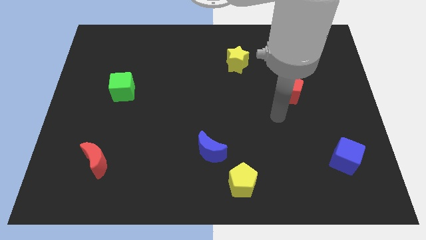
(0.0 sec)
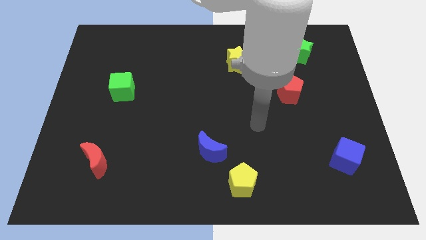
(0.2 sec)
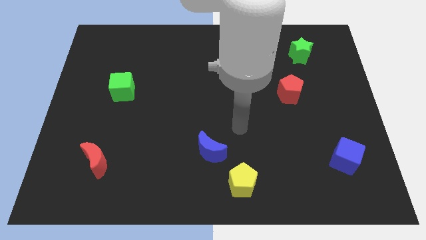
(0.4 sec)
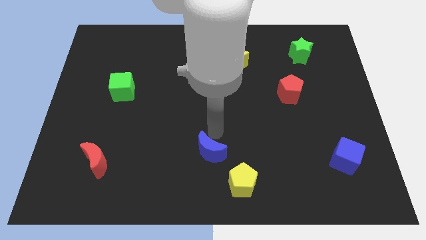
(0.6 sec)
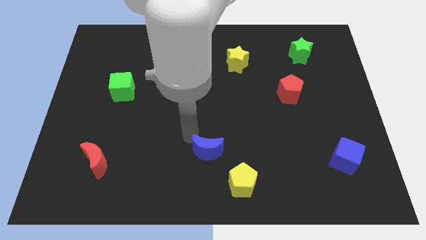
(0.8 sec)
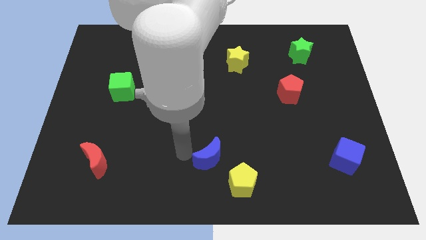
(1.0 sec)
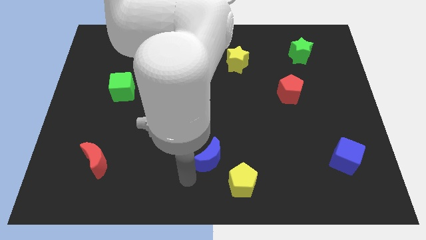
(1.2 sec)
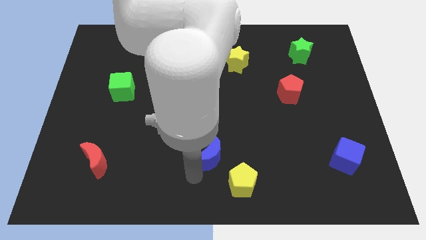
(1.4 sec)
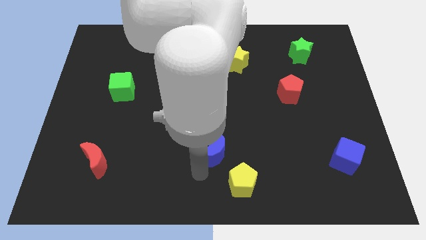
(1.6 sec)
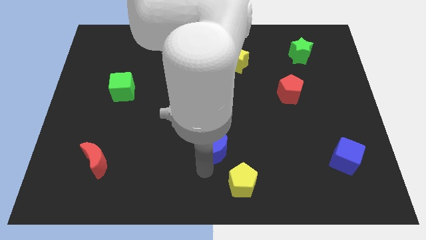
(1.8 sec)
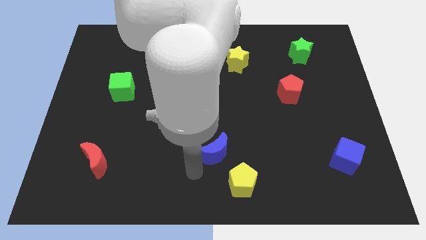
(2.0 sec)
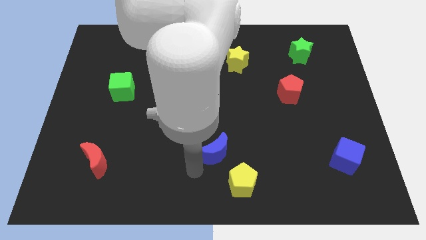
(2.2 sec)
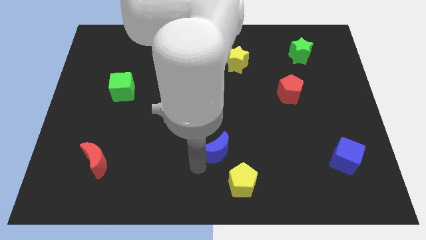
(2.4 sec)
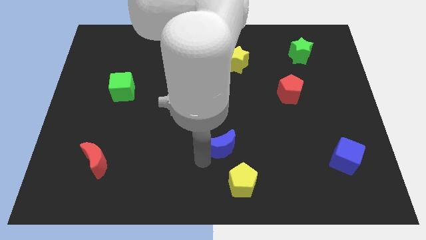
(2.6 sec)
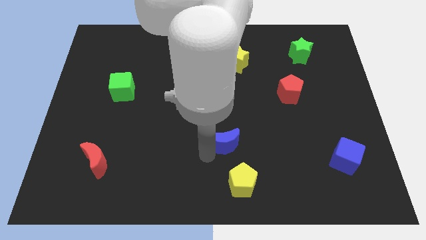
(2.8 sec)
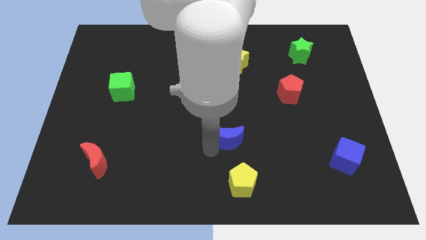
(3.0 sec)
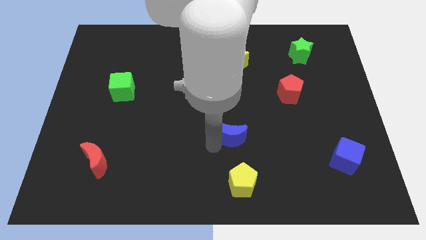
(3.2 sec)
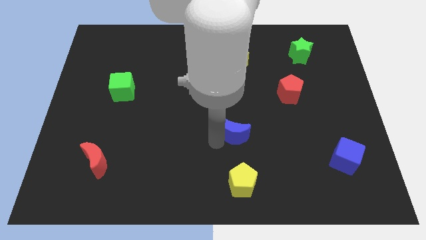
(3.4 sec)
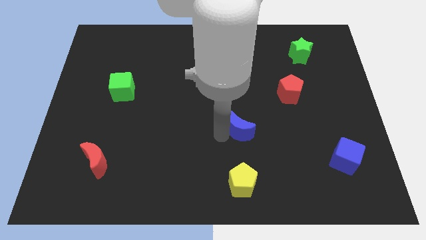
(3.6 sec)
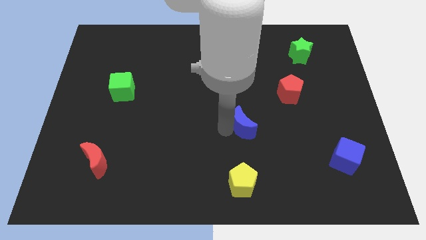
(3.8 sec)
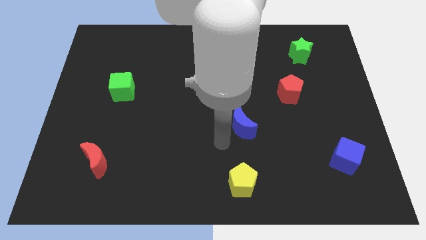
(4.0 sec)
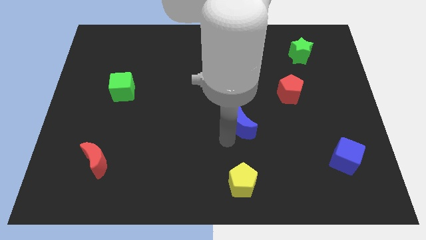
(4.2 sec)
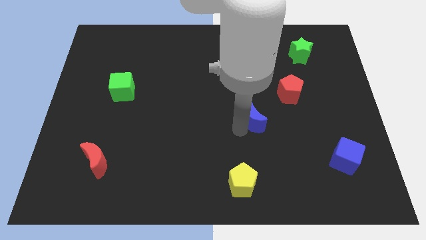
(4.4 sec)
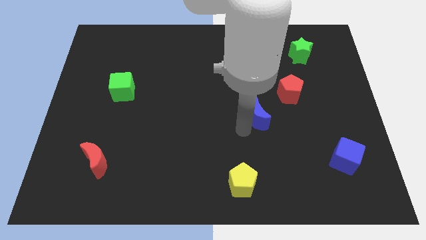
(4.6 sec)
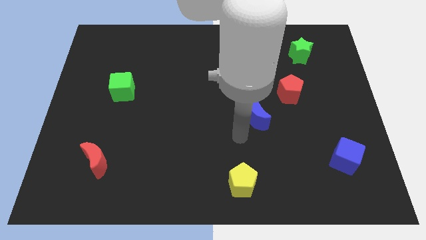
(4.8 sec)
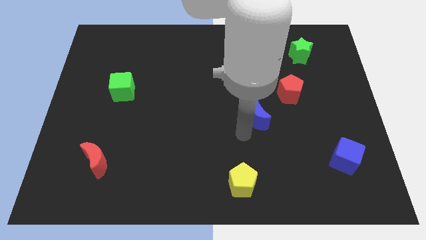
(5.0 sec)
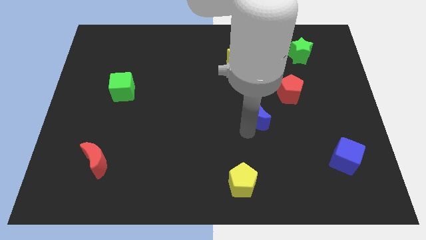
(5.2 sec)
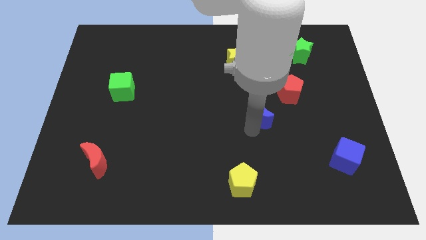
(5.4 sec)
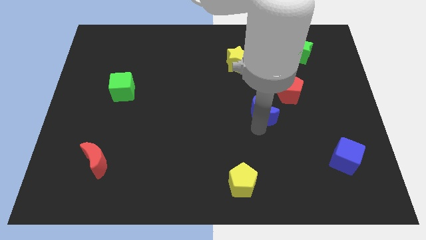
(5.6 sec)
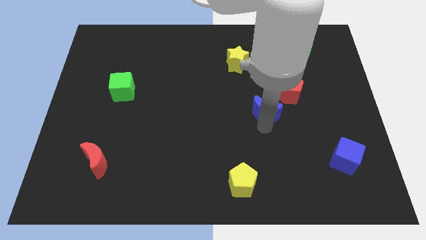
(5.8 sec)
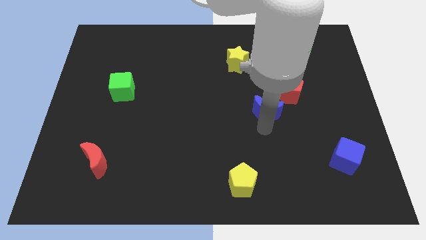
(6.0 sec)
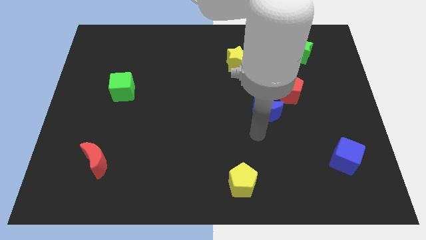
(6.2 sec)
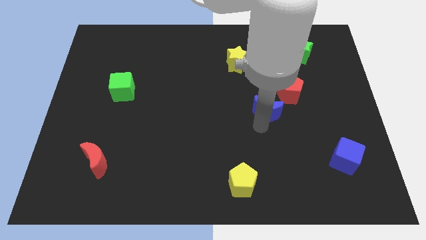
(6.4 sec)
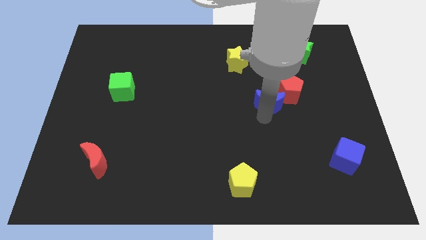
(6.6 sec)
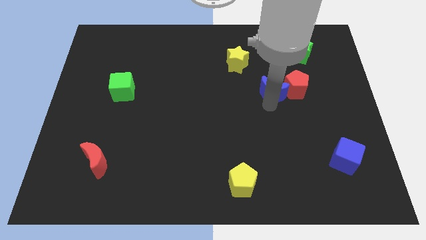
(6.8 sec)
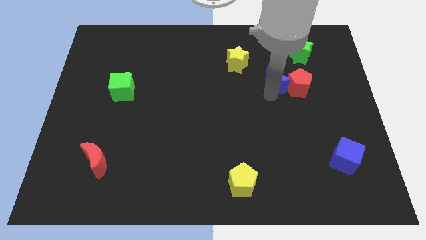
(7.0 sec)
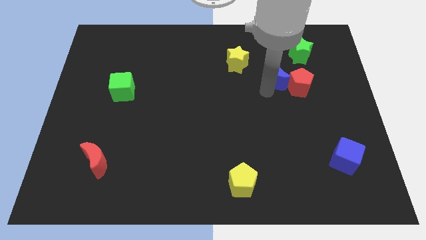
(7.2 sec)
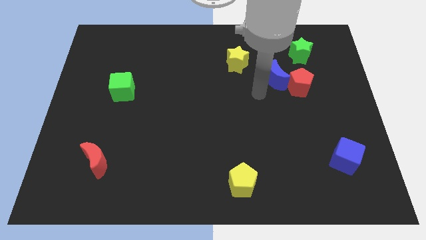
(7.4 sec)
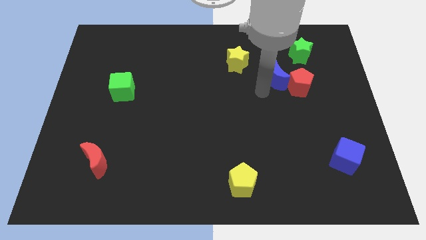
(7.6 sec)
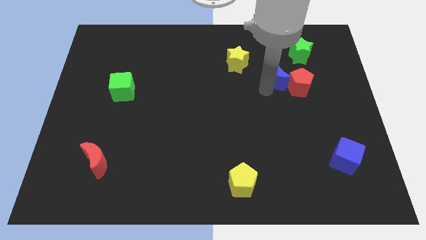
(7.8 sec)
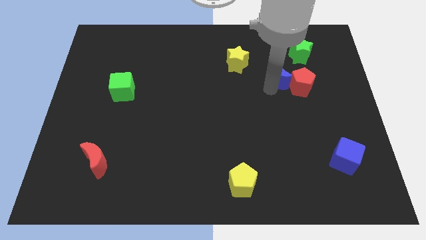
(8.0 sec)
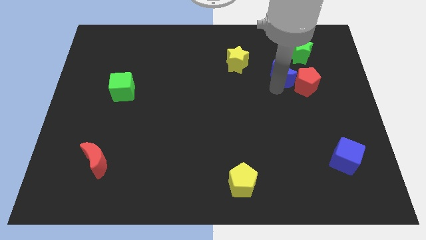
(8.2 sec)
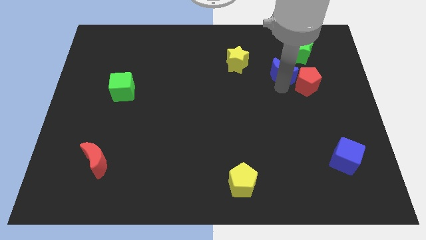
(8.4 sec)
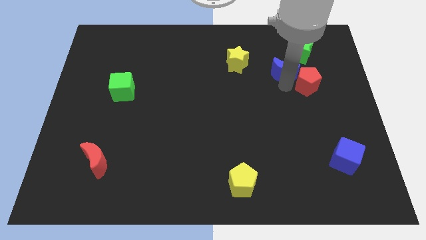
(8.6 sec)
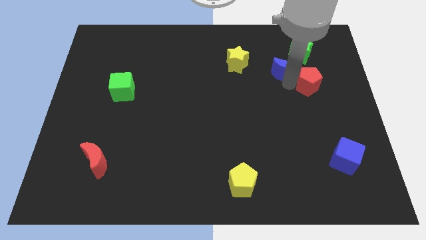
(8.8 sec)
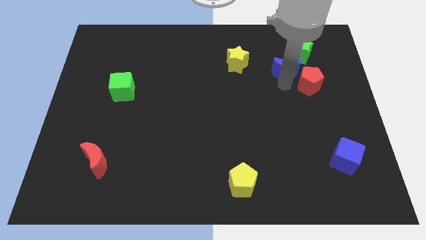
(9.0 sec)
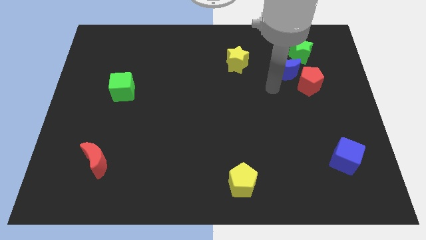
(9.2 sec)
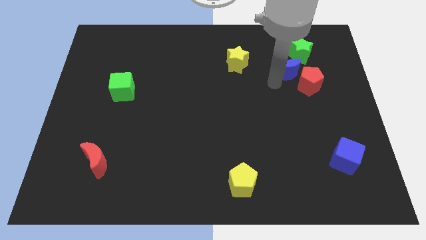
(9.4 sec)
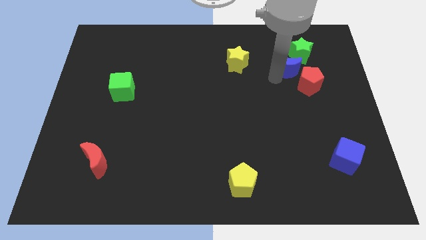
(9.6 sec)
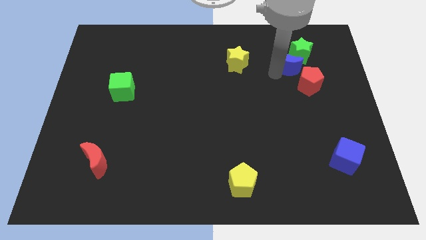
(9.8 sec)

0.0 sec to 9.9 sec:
move the blue moon close to the green star

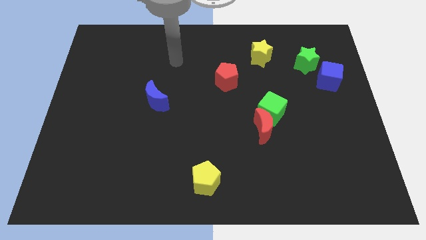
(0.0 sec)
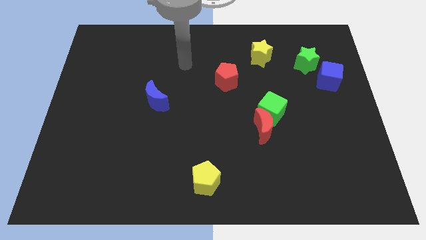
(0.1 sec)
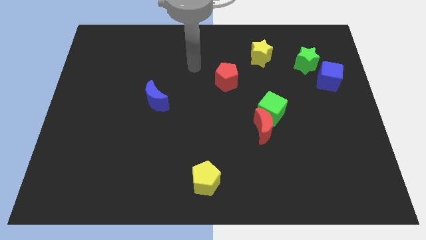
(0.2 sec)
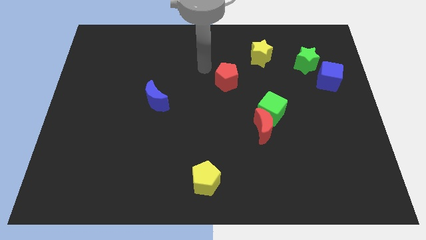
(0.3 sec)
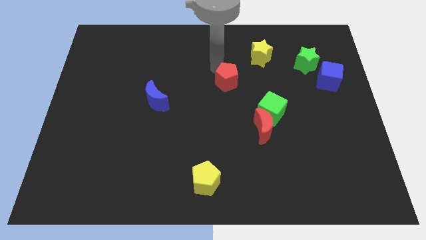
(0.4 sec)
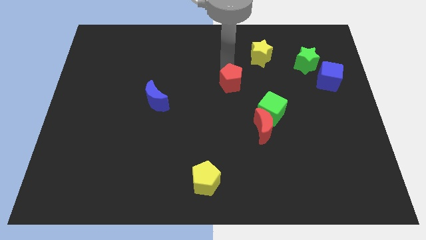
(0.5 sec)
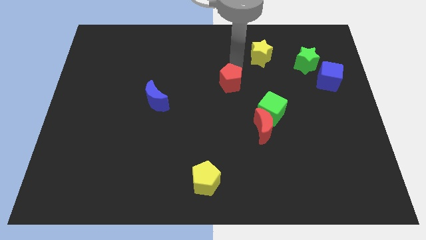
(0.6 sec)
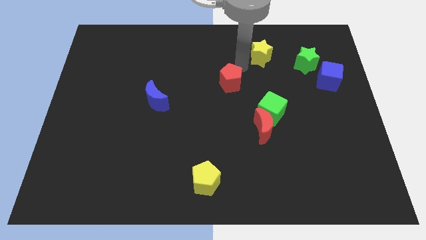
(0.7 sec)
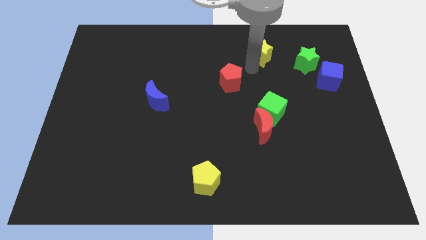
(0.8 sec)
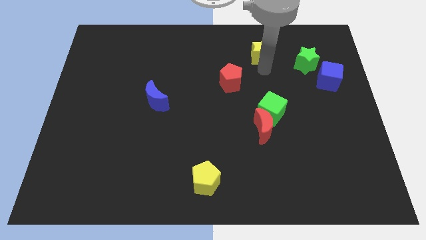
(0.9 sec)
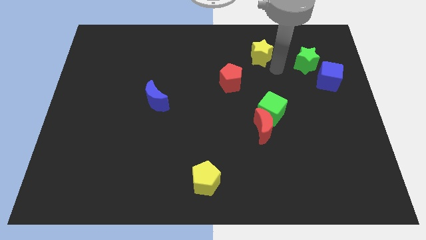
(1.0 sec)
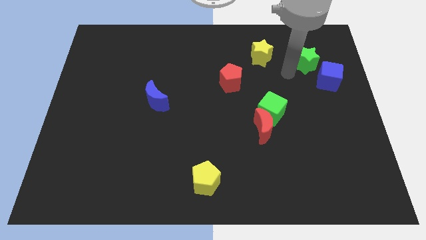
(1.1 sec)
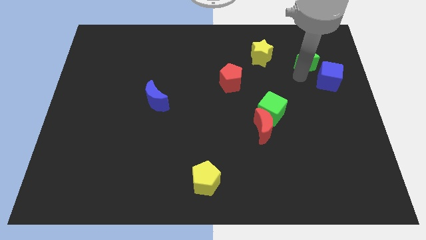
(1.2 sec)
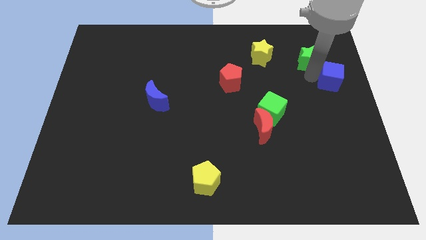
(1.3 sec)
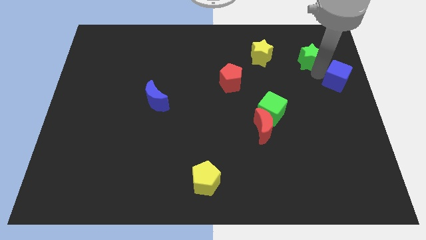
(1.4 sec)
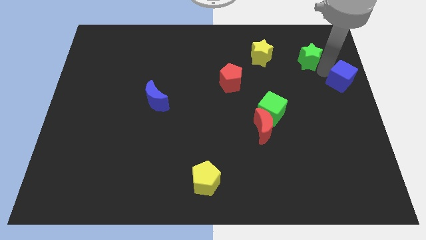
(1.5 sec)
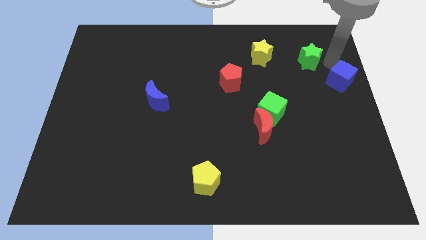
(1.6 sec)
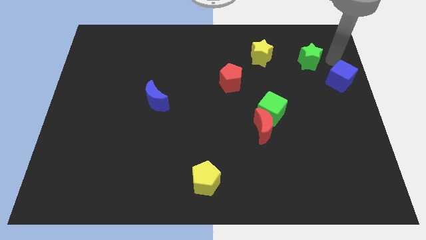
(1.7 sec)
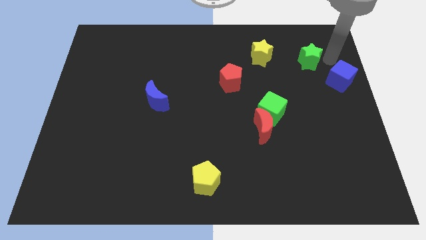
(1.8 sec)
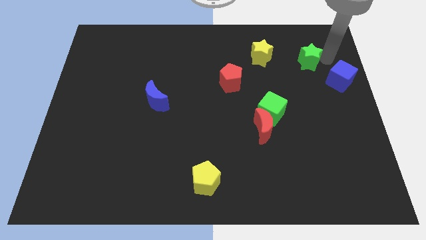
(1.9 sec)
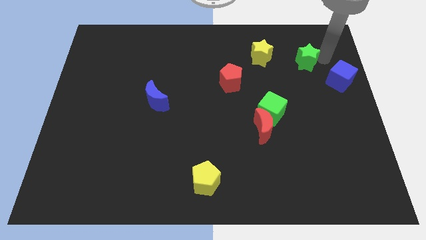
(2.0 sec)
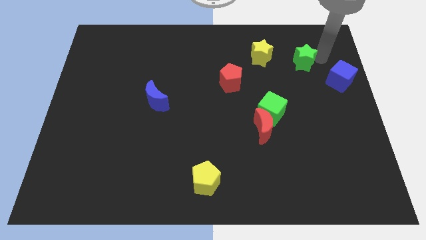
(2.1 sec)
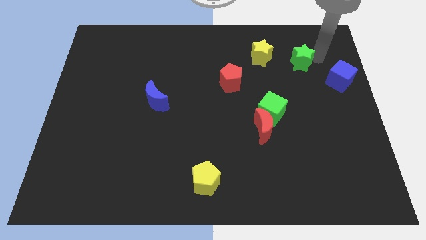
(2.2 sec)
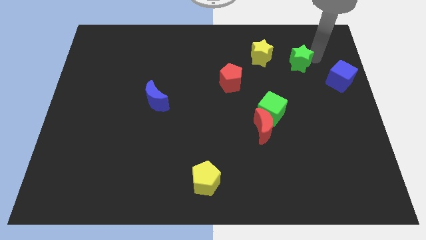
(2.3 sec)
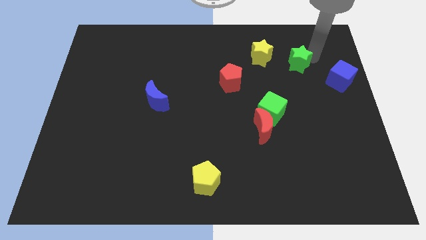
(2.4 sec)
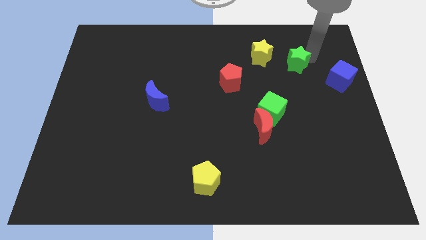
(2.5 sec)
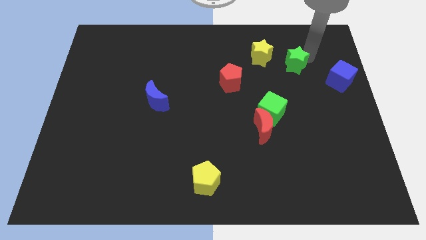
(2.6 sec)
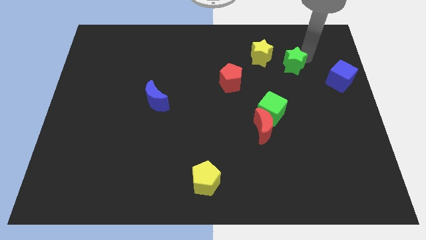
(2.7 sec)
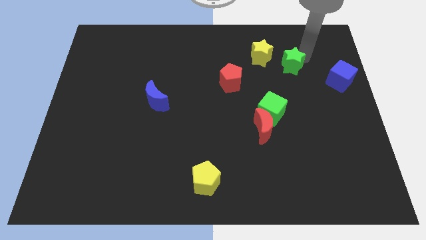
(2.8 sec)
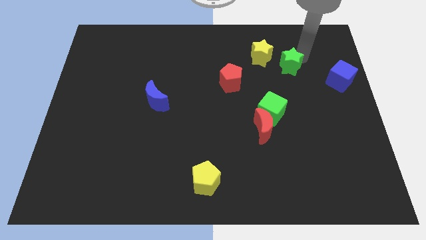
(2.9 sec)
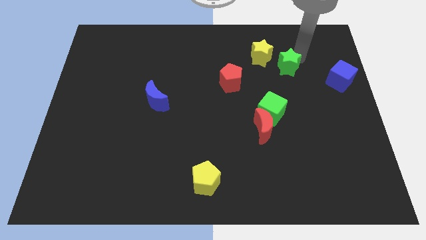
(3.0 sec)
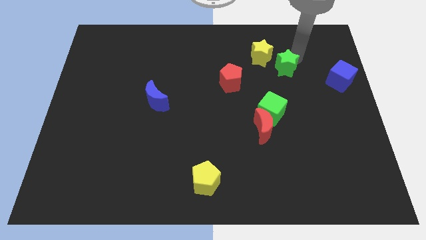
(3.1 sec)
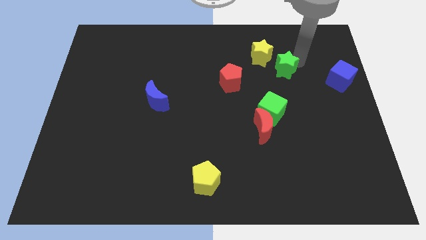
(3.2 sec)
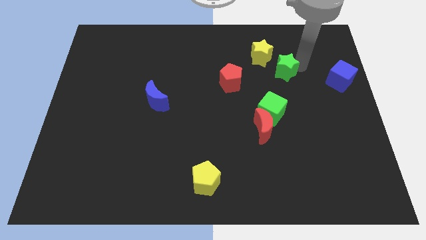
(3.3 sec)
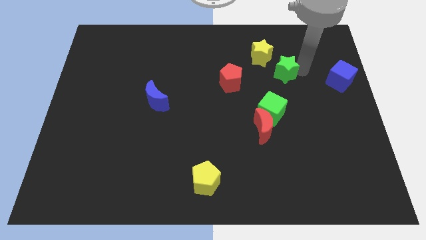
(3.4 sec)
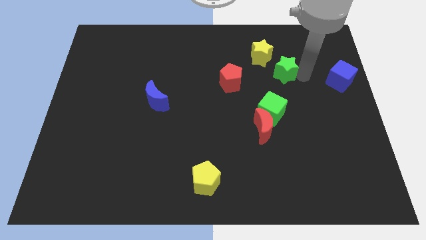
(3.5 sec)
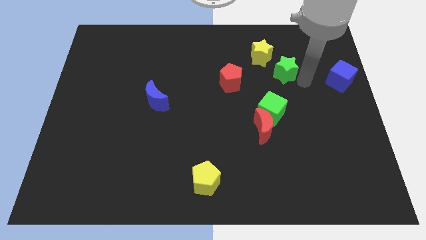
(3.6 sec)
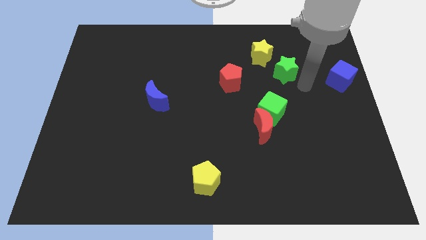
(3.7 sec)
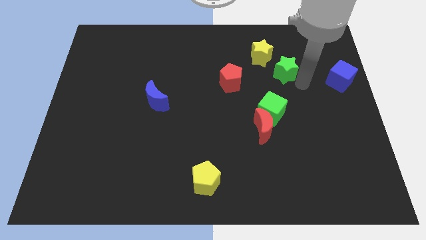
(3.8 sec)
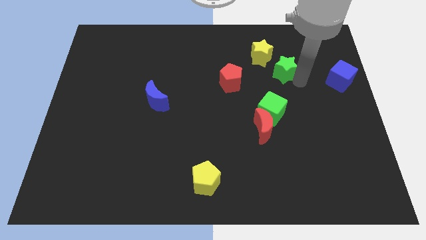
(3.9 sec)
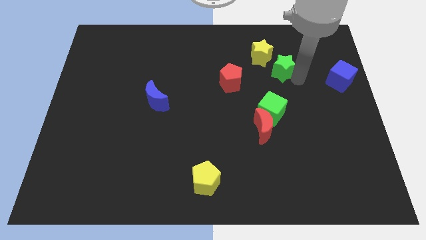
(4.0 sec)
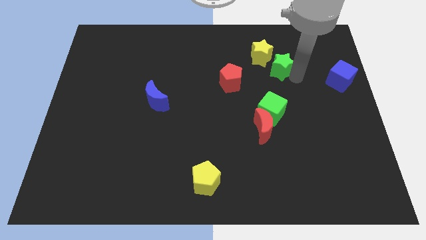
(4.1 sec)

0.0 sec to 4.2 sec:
put the green star towards the yellow star
